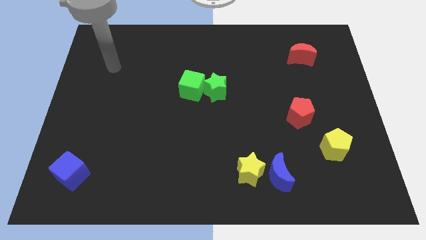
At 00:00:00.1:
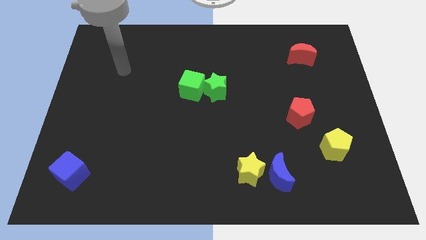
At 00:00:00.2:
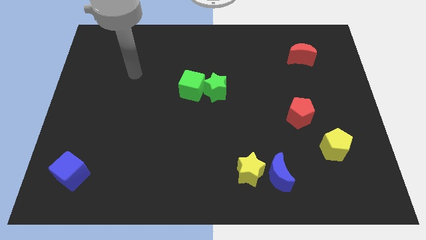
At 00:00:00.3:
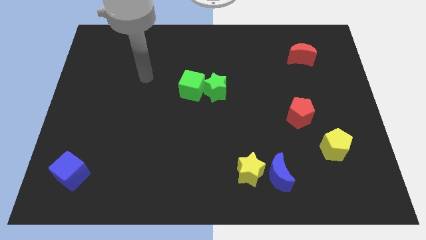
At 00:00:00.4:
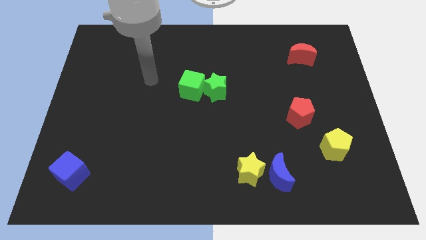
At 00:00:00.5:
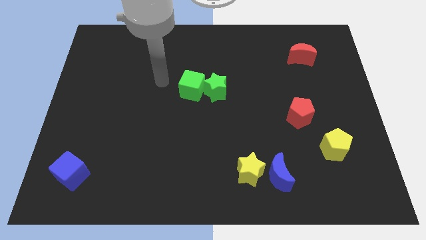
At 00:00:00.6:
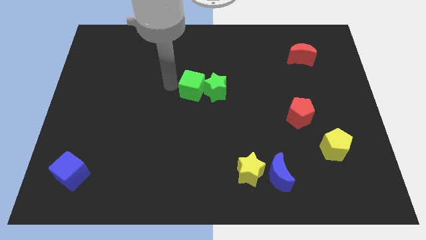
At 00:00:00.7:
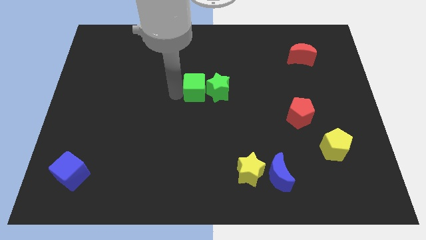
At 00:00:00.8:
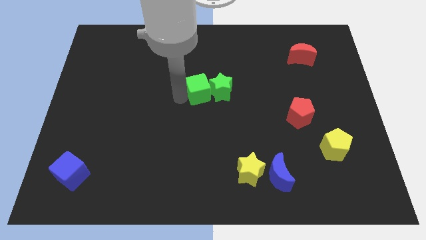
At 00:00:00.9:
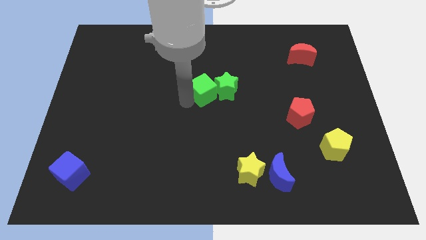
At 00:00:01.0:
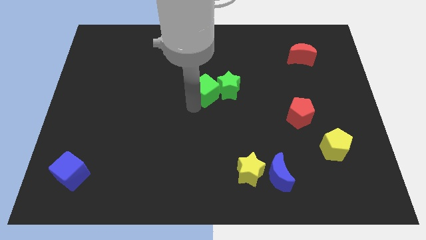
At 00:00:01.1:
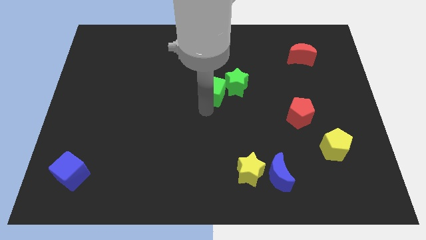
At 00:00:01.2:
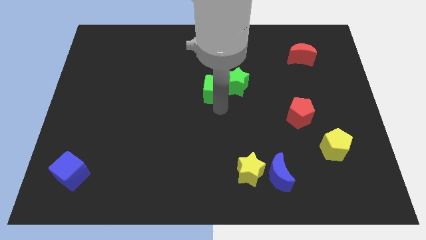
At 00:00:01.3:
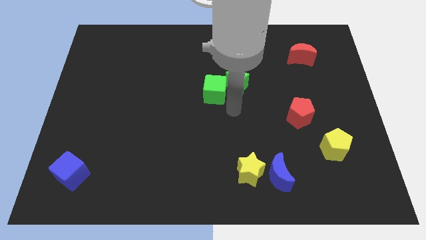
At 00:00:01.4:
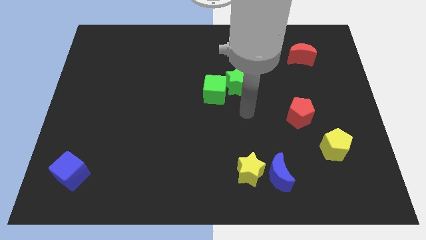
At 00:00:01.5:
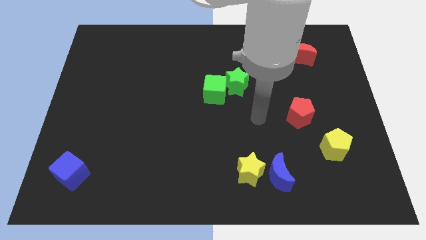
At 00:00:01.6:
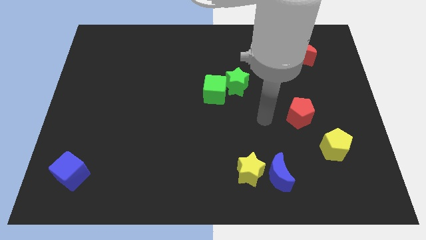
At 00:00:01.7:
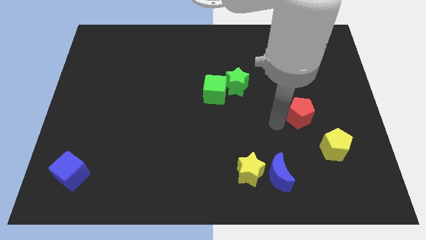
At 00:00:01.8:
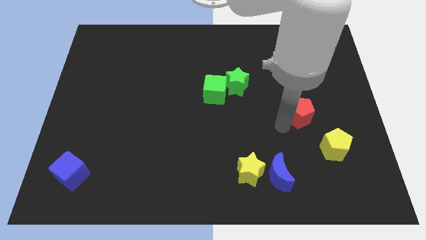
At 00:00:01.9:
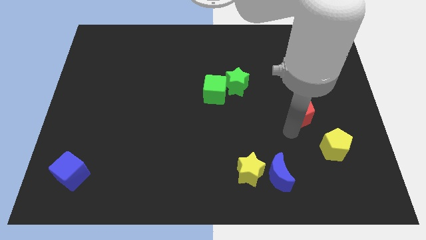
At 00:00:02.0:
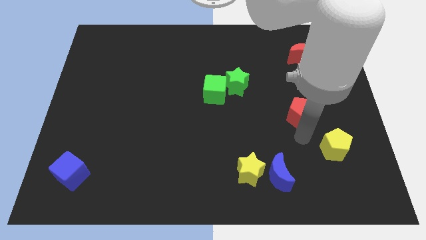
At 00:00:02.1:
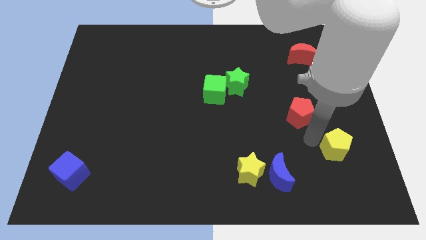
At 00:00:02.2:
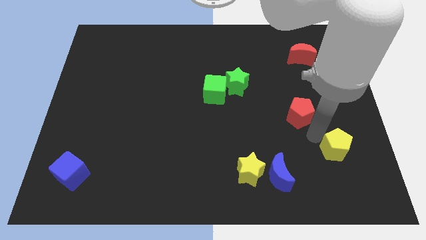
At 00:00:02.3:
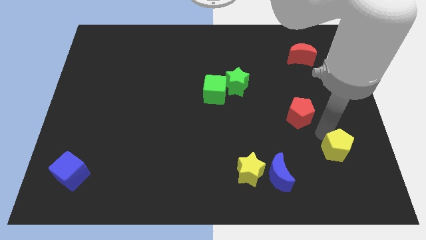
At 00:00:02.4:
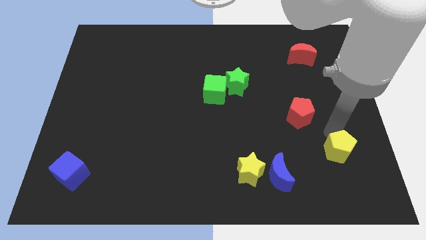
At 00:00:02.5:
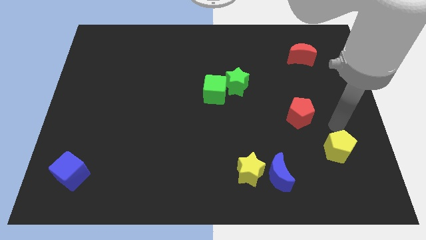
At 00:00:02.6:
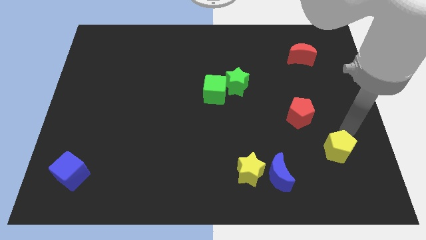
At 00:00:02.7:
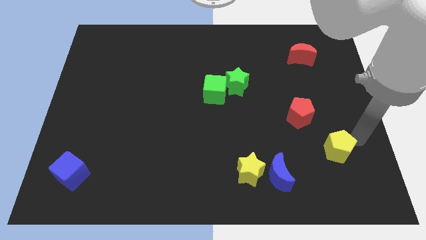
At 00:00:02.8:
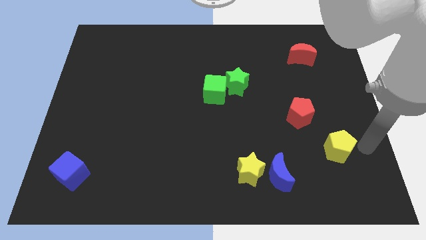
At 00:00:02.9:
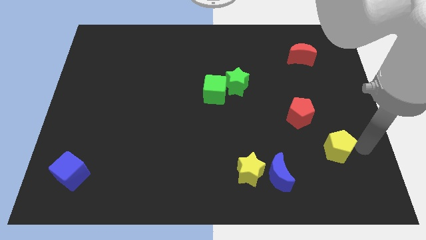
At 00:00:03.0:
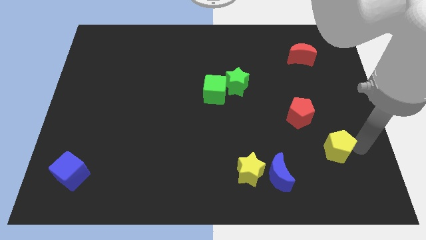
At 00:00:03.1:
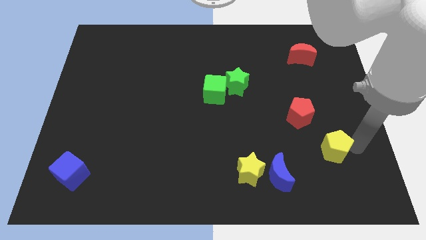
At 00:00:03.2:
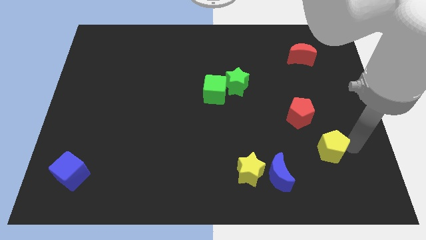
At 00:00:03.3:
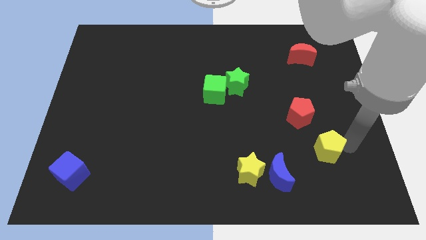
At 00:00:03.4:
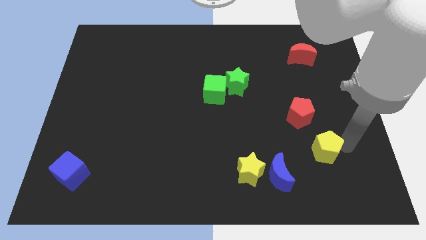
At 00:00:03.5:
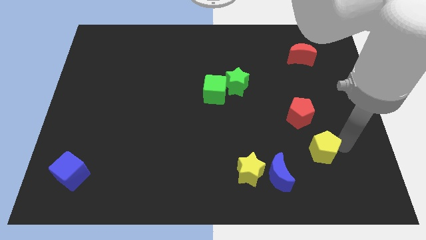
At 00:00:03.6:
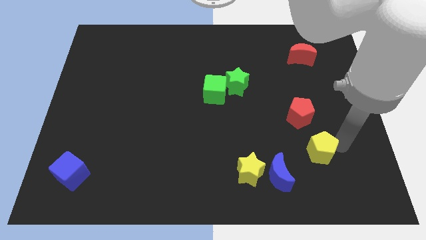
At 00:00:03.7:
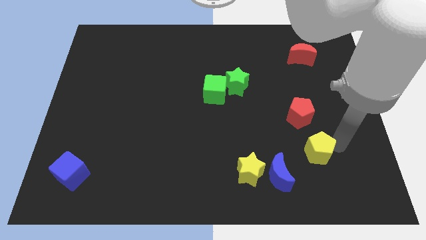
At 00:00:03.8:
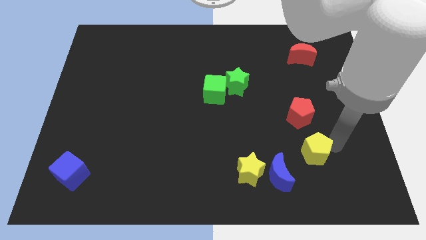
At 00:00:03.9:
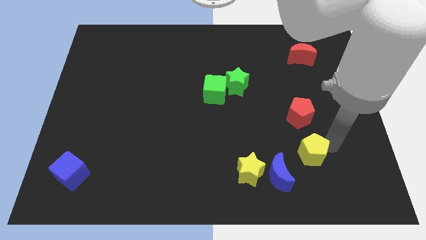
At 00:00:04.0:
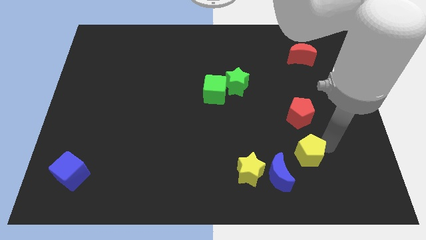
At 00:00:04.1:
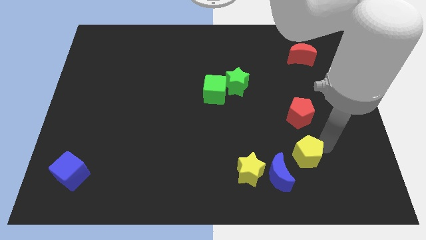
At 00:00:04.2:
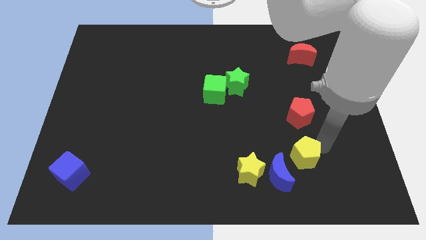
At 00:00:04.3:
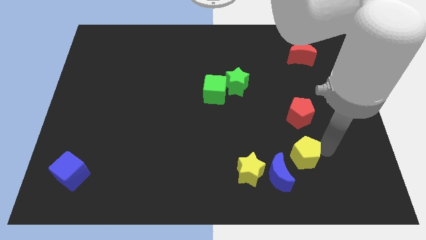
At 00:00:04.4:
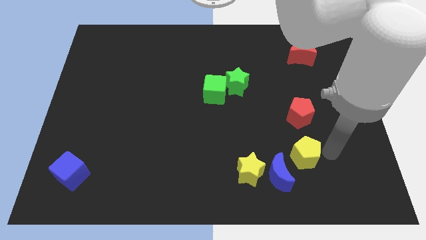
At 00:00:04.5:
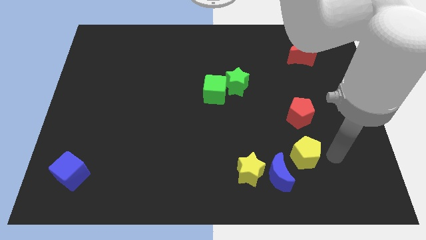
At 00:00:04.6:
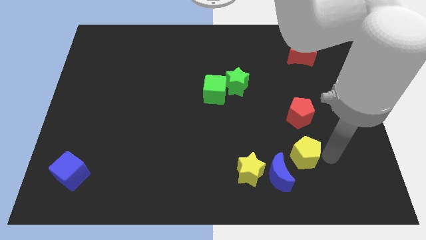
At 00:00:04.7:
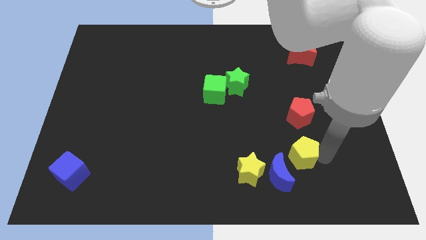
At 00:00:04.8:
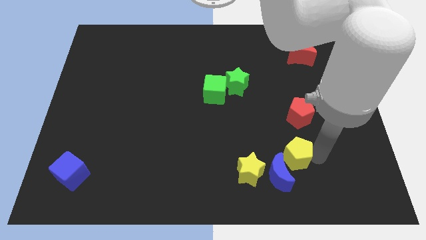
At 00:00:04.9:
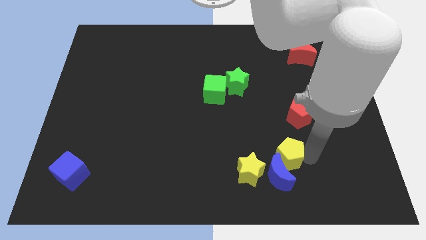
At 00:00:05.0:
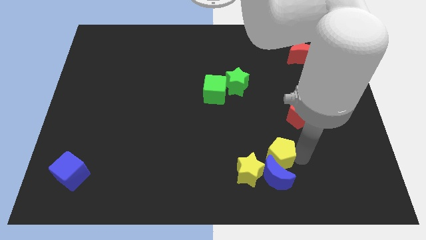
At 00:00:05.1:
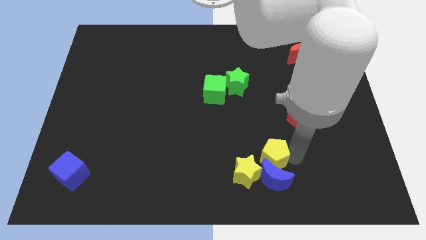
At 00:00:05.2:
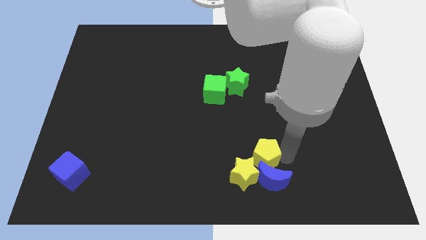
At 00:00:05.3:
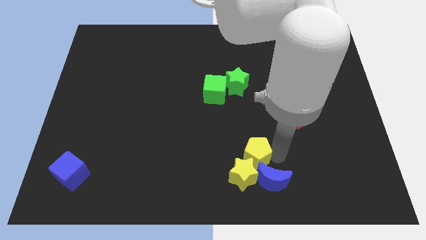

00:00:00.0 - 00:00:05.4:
put the yellow pentagon close to the yellow star

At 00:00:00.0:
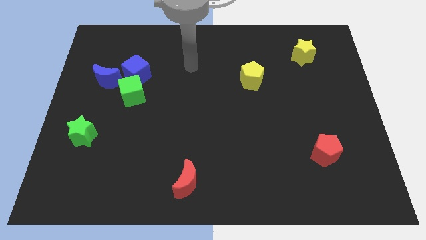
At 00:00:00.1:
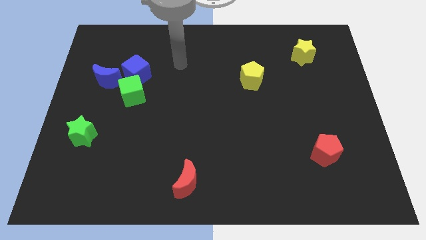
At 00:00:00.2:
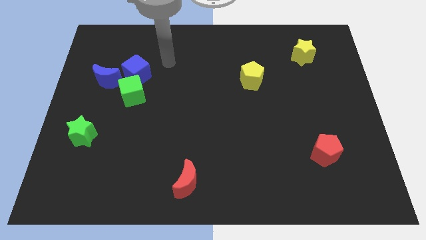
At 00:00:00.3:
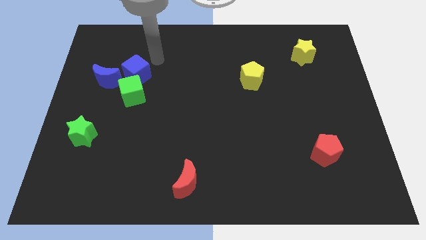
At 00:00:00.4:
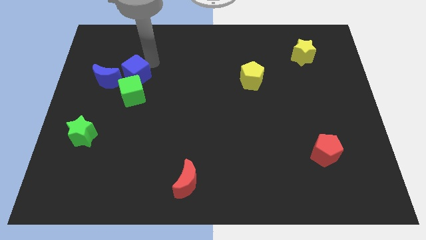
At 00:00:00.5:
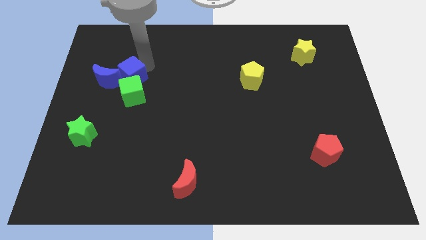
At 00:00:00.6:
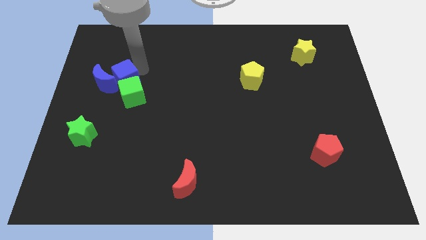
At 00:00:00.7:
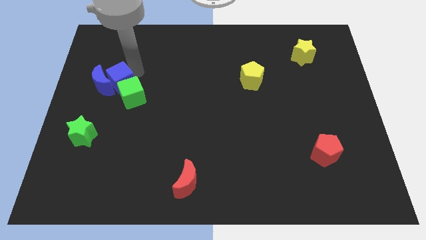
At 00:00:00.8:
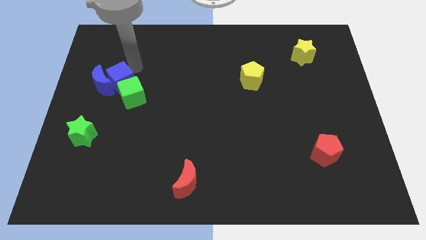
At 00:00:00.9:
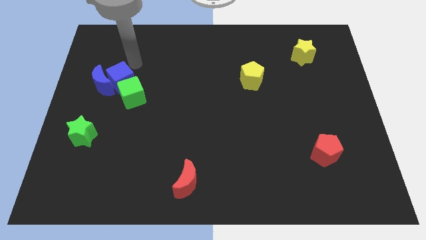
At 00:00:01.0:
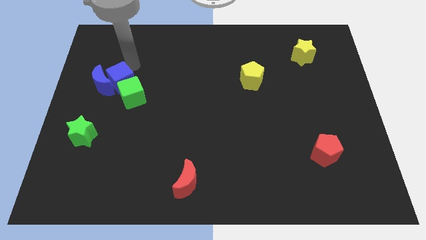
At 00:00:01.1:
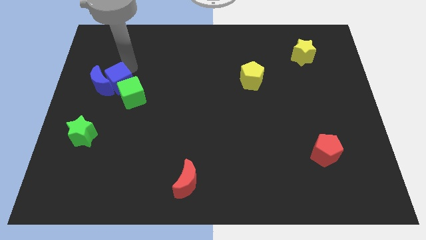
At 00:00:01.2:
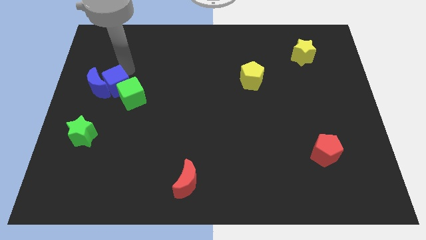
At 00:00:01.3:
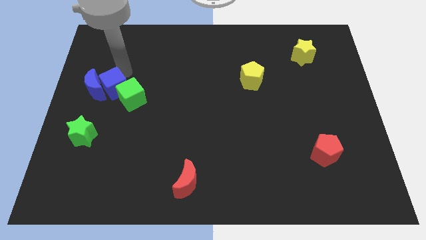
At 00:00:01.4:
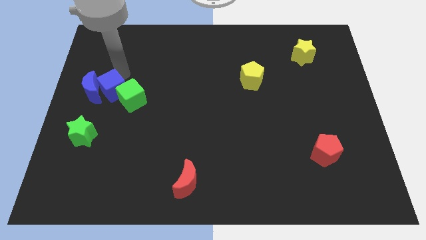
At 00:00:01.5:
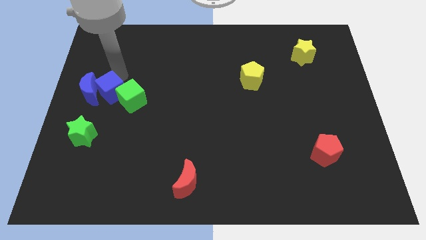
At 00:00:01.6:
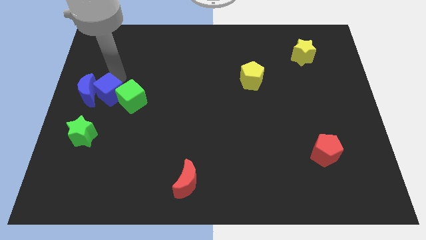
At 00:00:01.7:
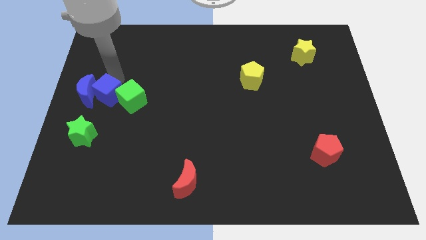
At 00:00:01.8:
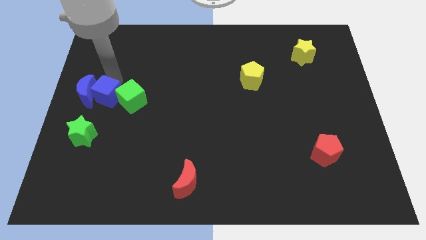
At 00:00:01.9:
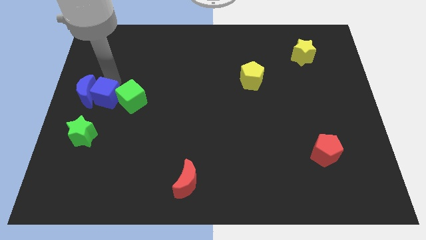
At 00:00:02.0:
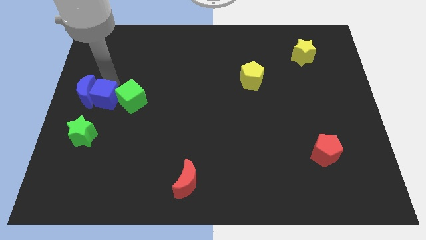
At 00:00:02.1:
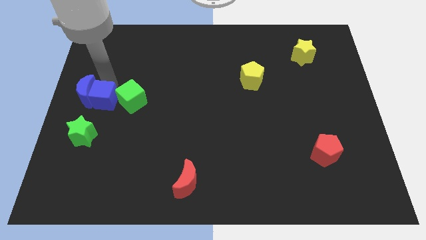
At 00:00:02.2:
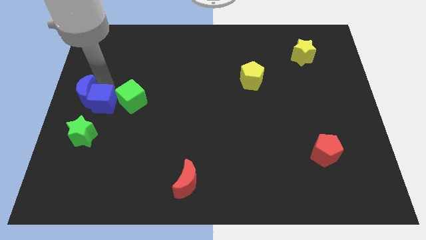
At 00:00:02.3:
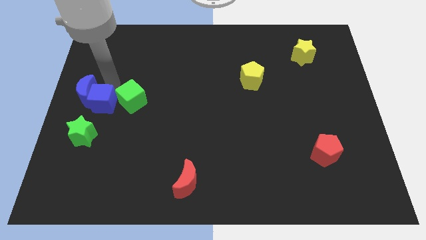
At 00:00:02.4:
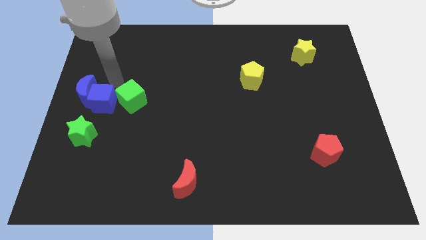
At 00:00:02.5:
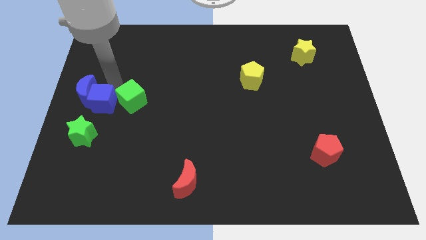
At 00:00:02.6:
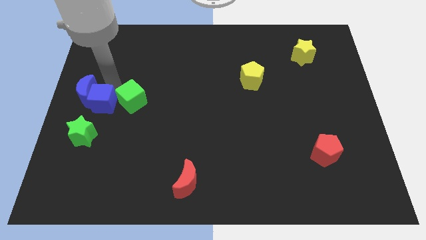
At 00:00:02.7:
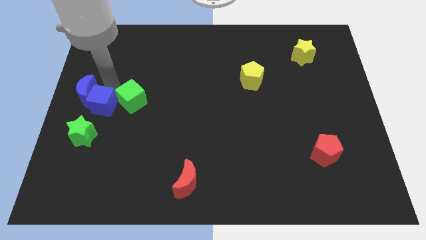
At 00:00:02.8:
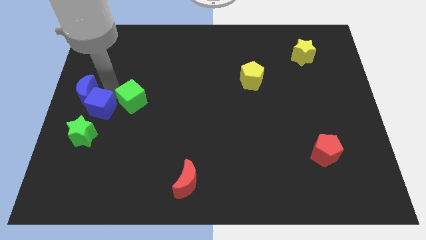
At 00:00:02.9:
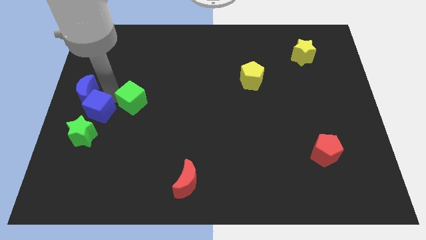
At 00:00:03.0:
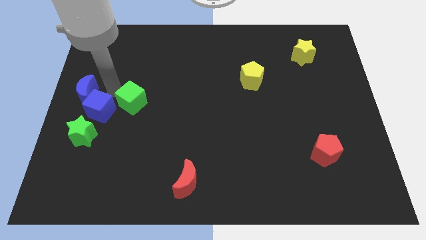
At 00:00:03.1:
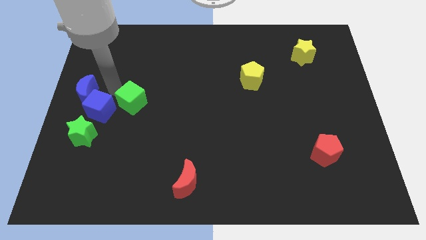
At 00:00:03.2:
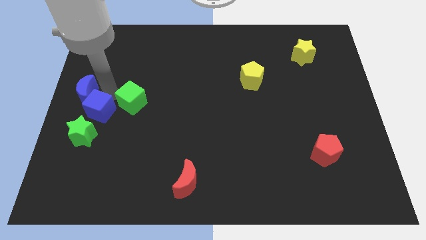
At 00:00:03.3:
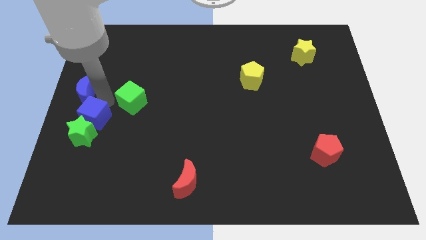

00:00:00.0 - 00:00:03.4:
put the blue cube towards the green star
